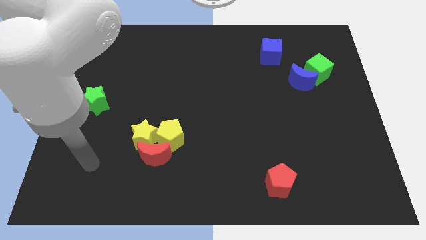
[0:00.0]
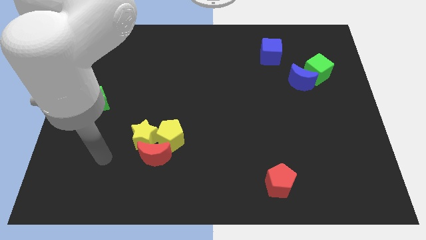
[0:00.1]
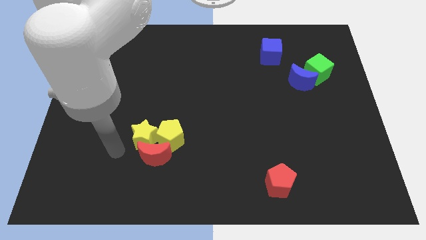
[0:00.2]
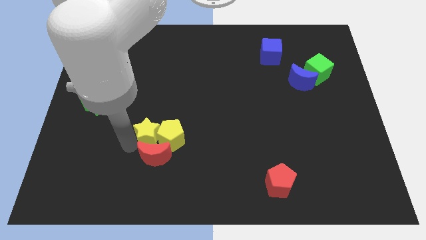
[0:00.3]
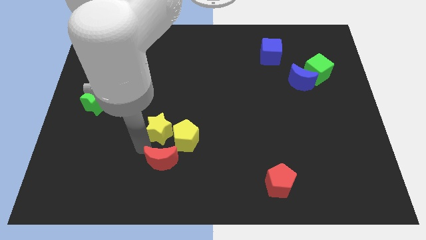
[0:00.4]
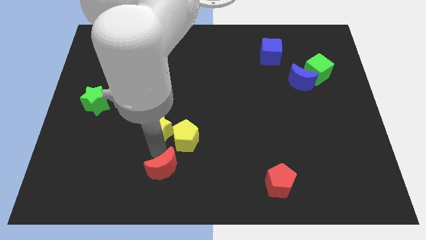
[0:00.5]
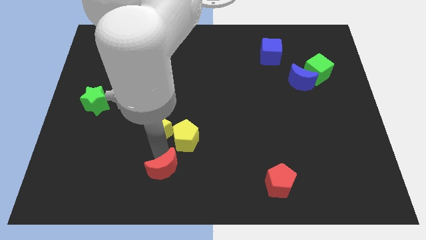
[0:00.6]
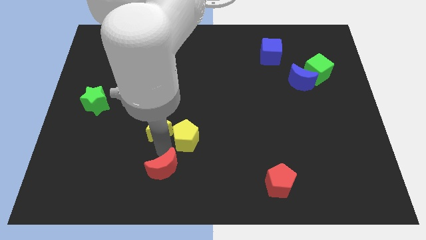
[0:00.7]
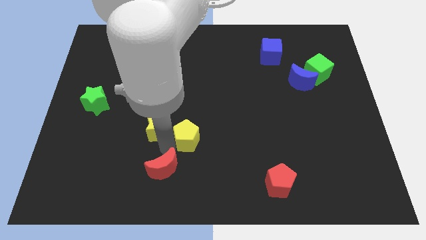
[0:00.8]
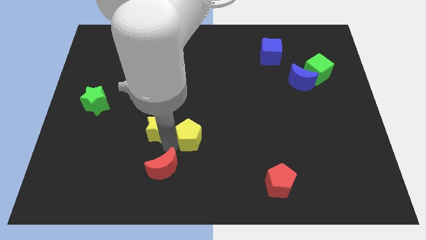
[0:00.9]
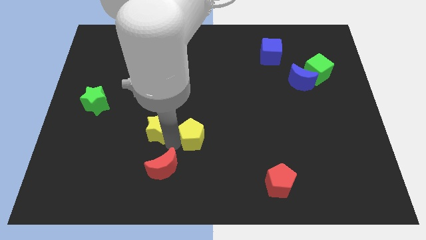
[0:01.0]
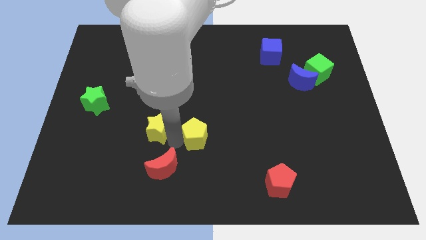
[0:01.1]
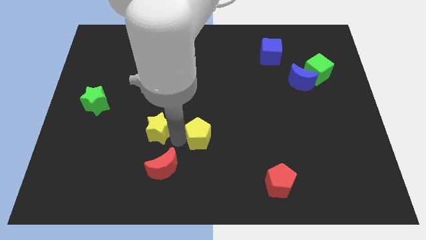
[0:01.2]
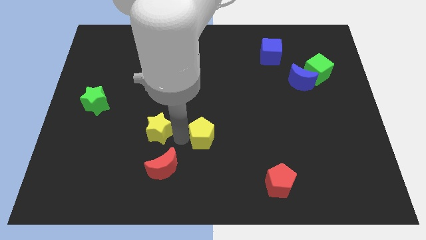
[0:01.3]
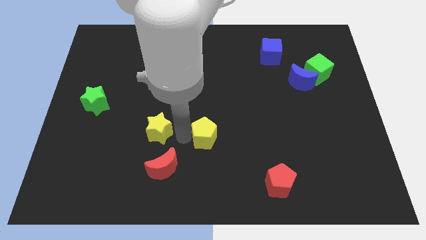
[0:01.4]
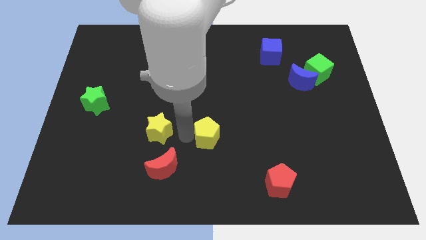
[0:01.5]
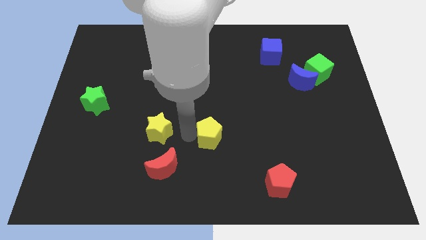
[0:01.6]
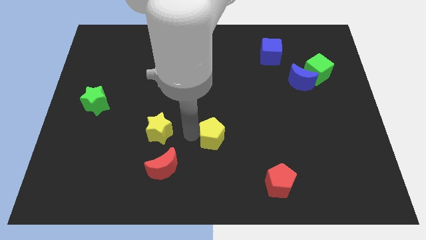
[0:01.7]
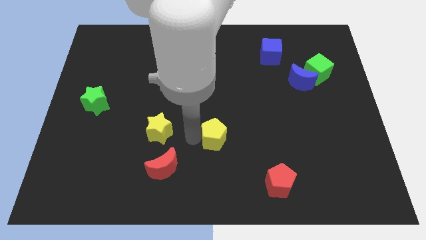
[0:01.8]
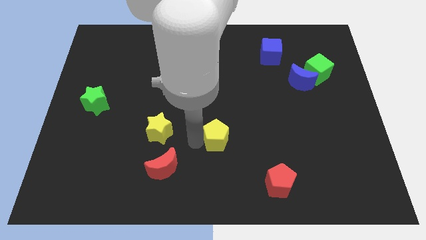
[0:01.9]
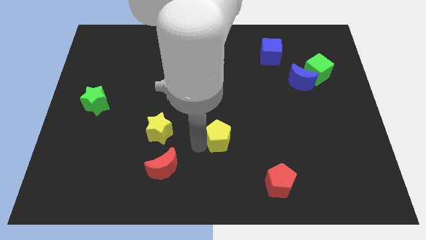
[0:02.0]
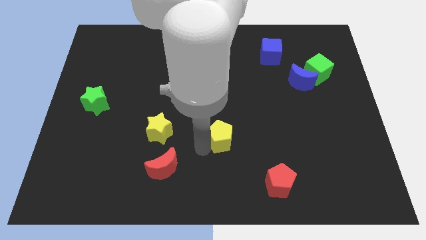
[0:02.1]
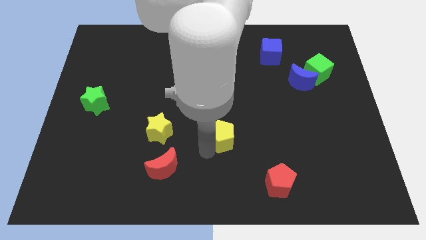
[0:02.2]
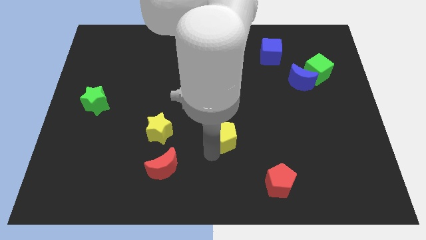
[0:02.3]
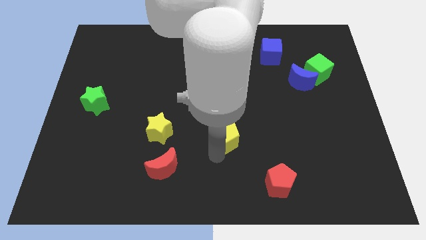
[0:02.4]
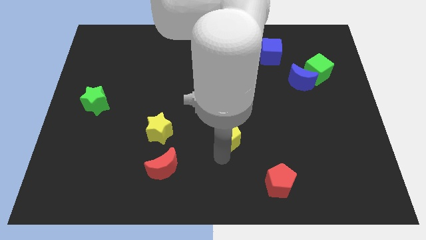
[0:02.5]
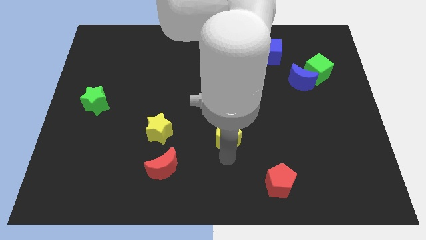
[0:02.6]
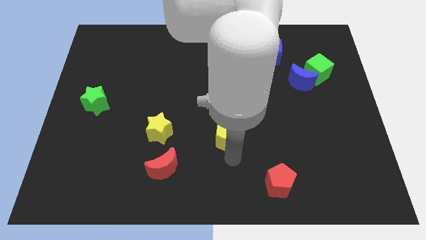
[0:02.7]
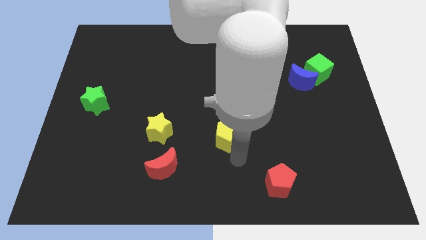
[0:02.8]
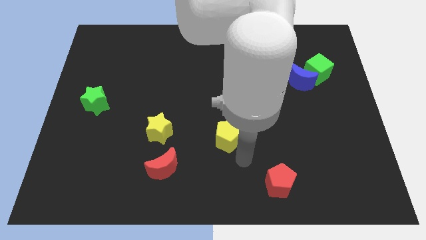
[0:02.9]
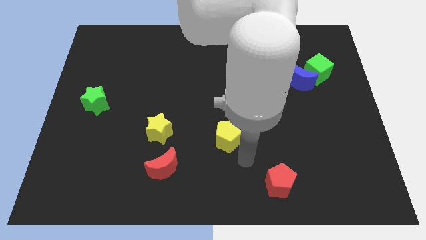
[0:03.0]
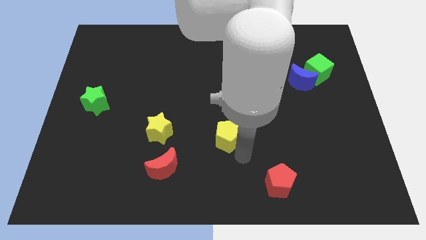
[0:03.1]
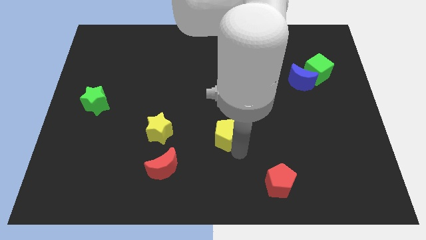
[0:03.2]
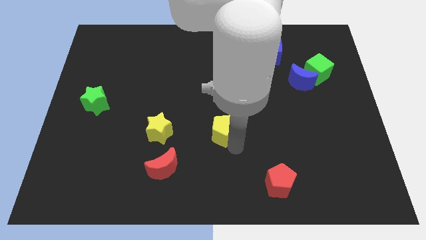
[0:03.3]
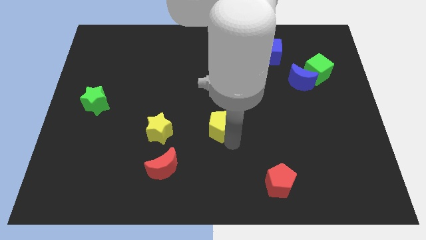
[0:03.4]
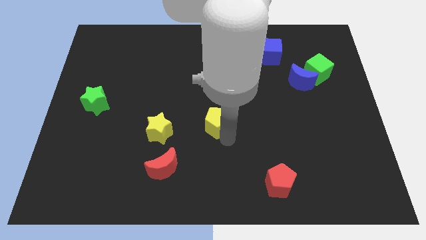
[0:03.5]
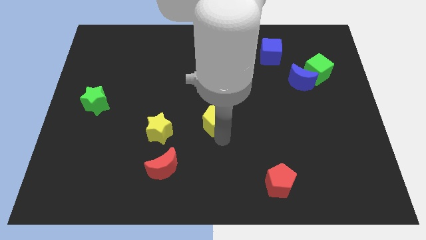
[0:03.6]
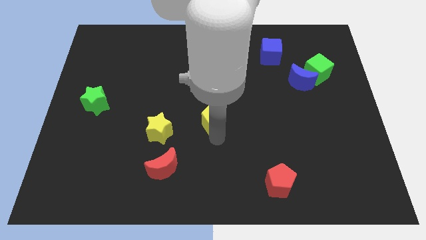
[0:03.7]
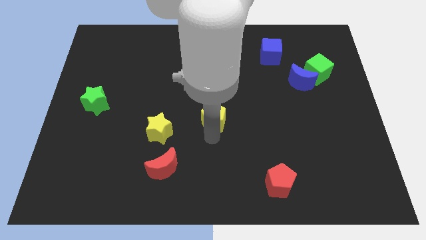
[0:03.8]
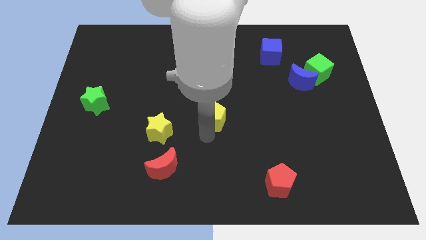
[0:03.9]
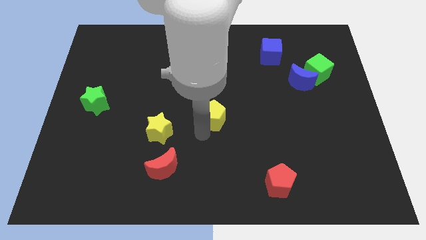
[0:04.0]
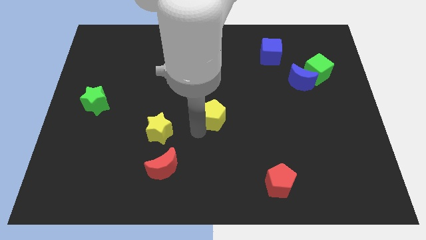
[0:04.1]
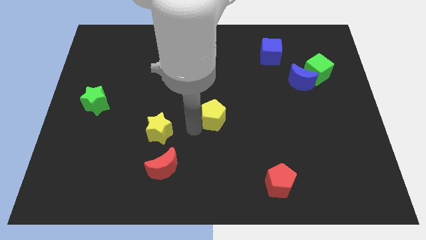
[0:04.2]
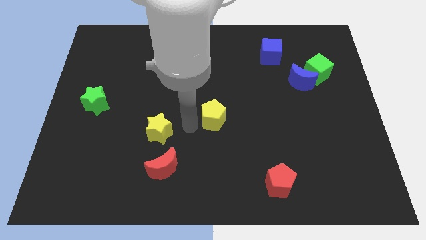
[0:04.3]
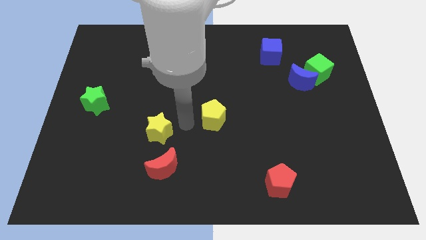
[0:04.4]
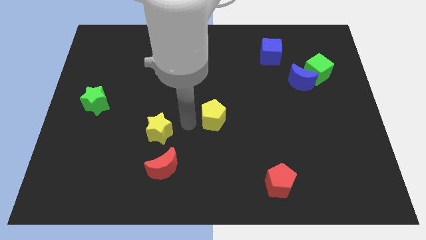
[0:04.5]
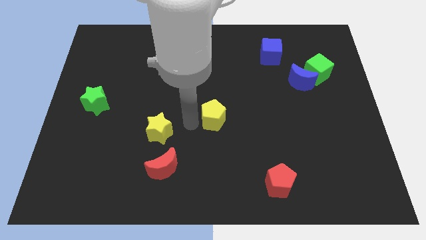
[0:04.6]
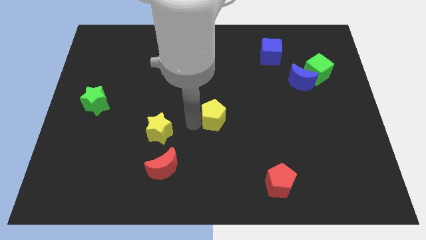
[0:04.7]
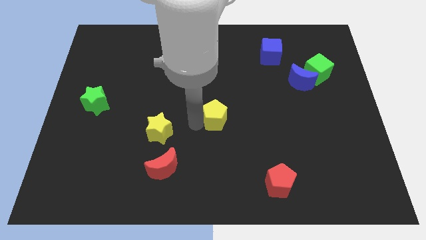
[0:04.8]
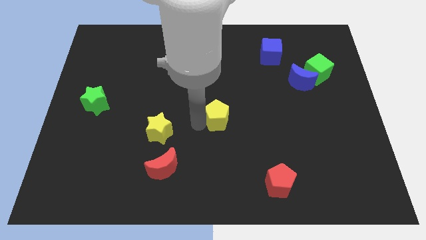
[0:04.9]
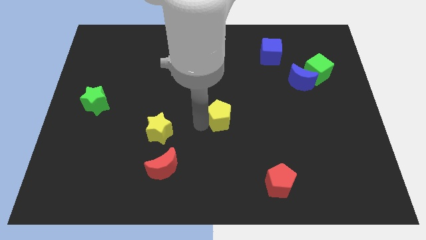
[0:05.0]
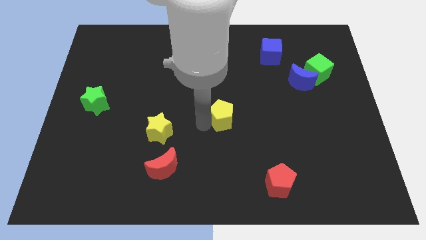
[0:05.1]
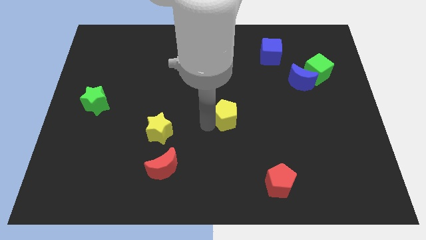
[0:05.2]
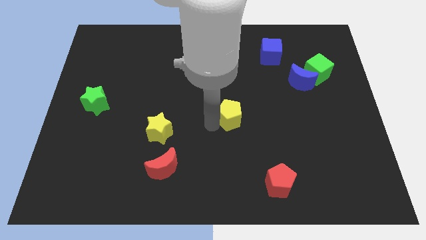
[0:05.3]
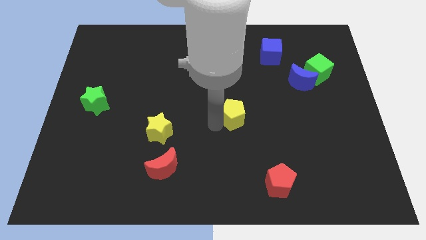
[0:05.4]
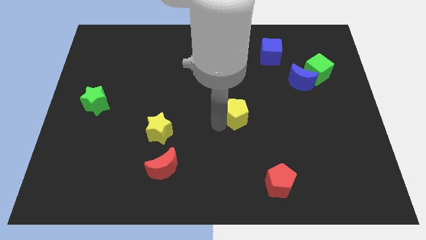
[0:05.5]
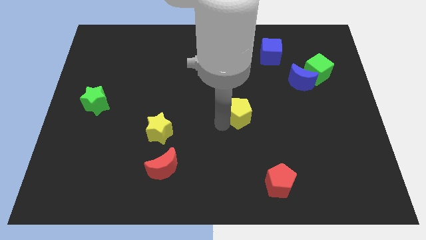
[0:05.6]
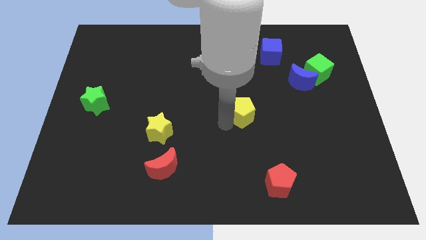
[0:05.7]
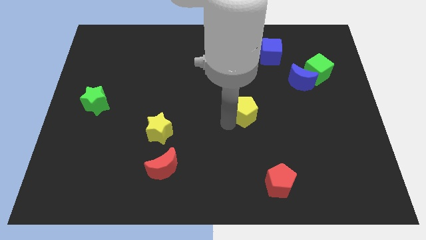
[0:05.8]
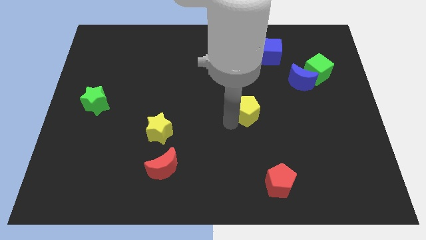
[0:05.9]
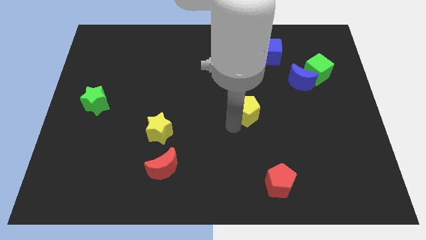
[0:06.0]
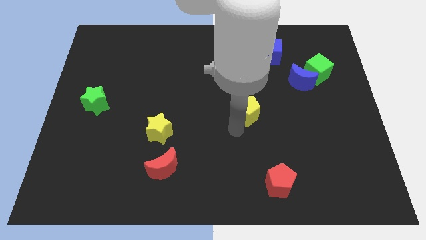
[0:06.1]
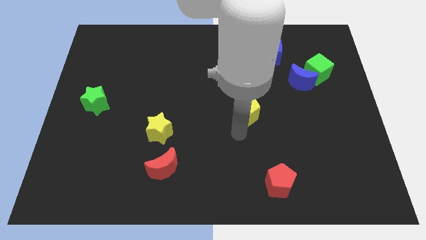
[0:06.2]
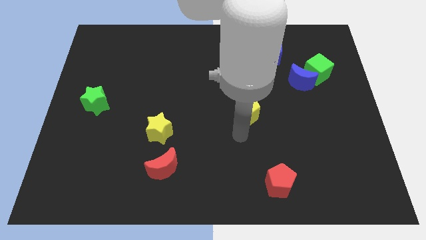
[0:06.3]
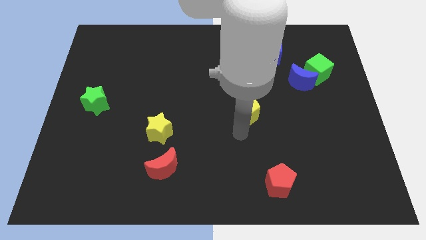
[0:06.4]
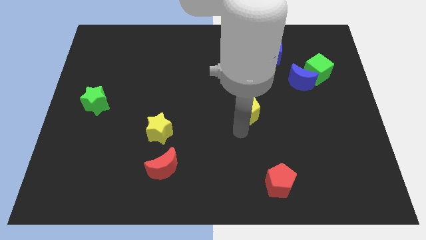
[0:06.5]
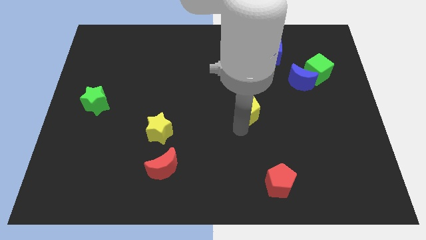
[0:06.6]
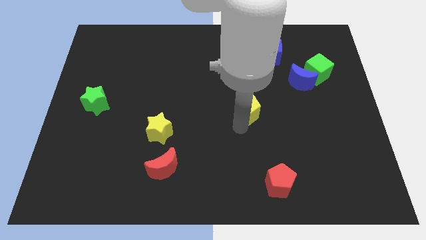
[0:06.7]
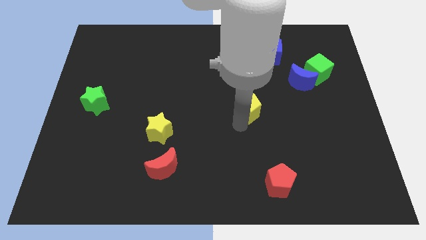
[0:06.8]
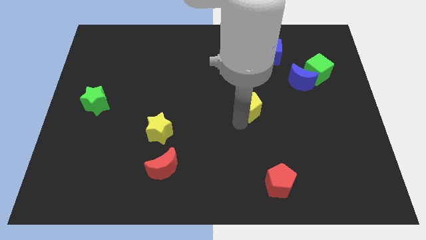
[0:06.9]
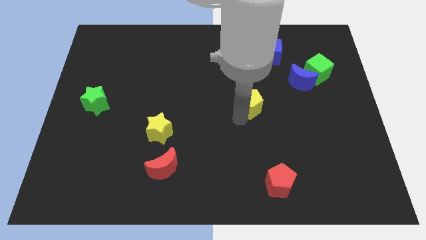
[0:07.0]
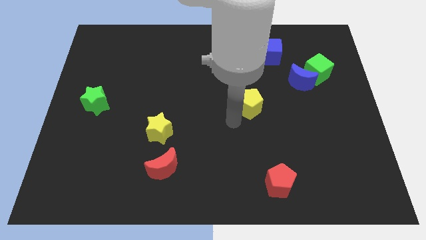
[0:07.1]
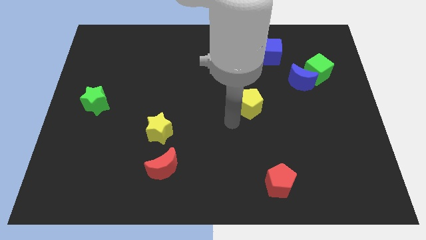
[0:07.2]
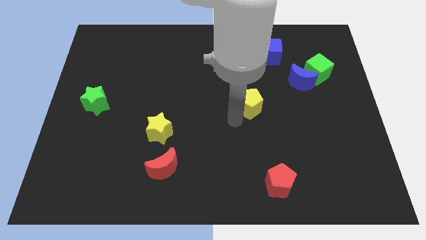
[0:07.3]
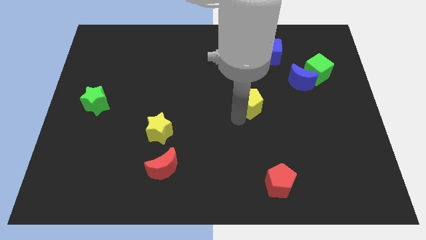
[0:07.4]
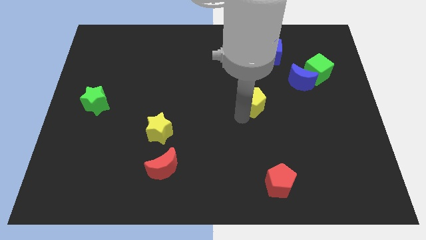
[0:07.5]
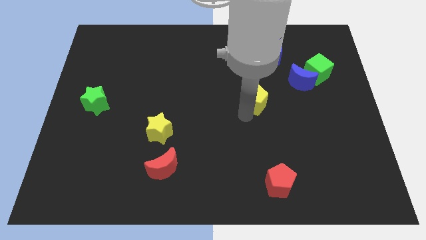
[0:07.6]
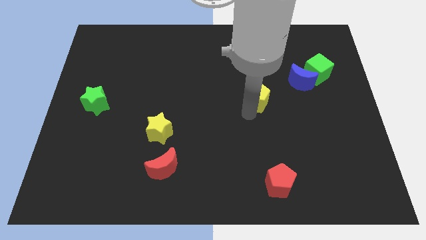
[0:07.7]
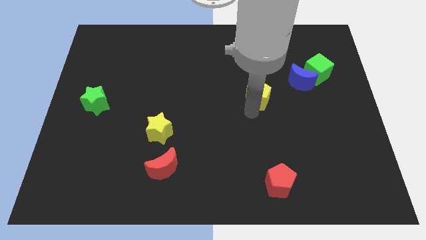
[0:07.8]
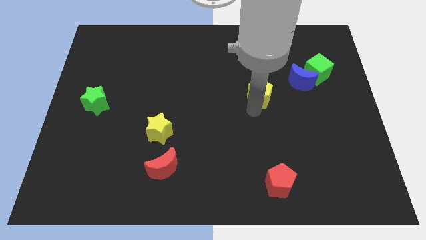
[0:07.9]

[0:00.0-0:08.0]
slide the yellow pentagon to the bottom side of the blue cube
